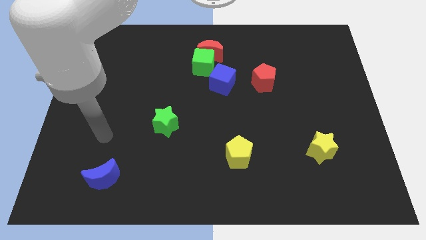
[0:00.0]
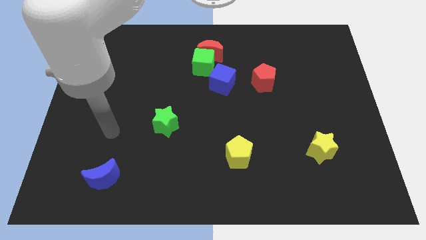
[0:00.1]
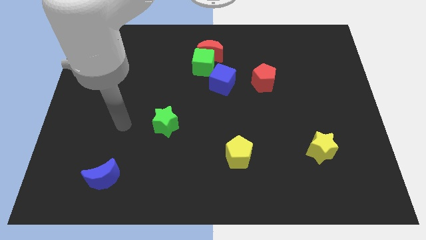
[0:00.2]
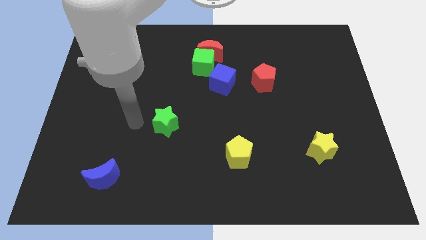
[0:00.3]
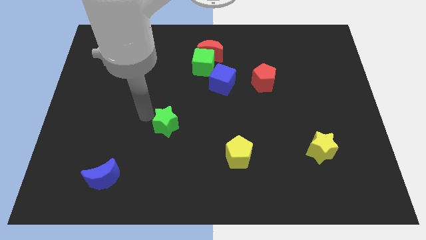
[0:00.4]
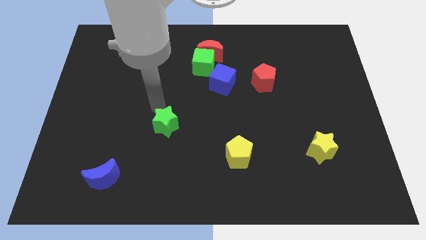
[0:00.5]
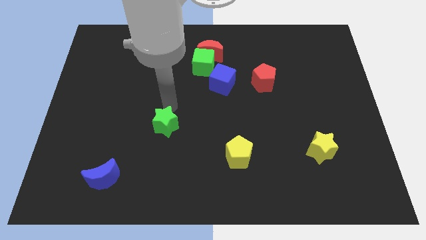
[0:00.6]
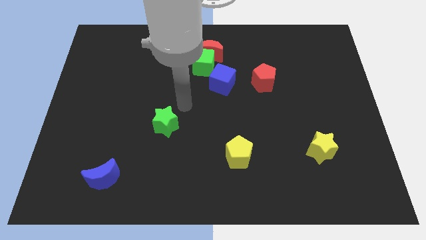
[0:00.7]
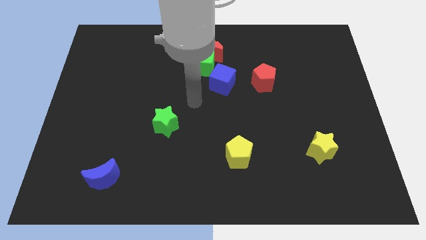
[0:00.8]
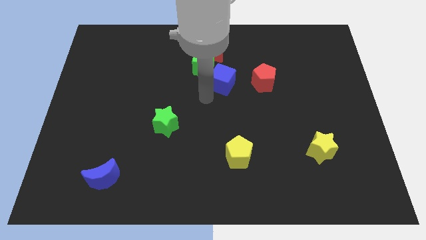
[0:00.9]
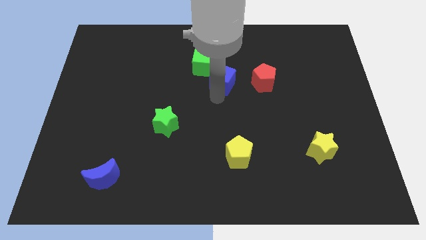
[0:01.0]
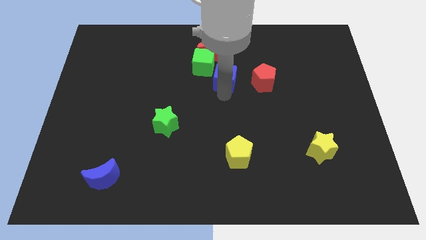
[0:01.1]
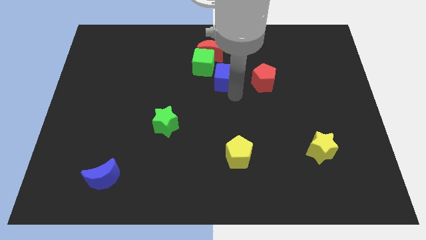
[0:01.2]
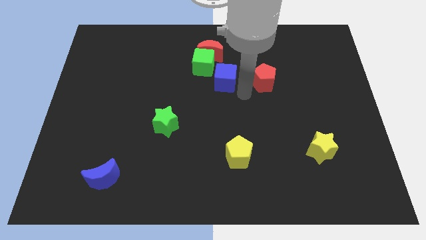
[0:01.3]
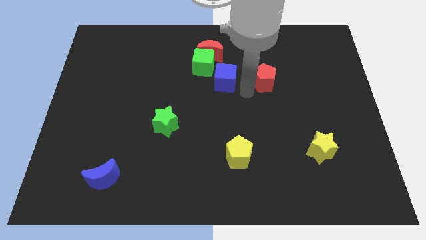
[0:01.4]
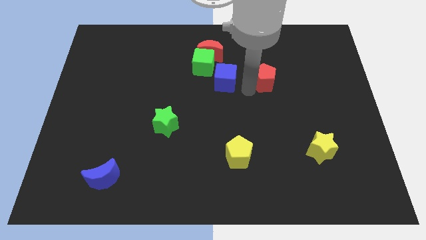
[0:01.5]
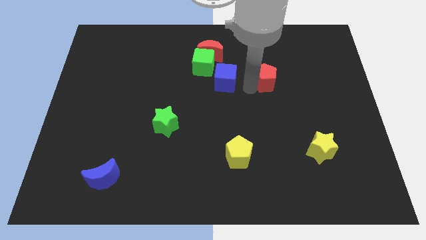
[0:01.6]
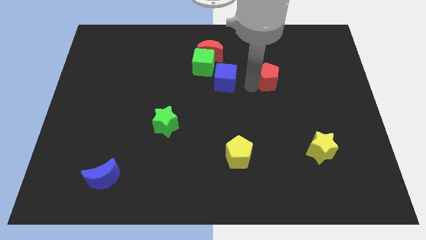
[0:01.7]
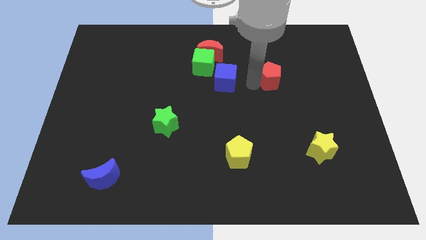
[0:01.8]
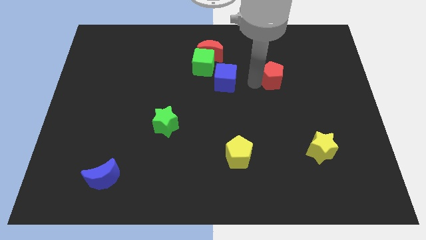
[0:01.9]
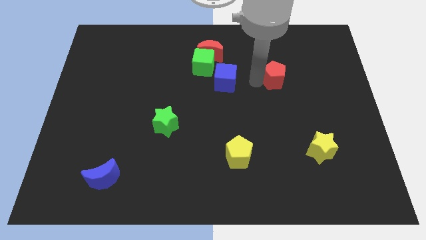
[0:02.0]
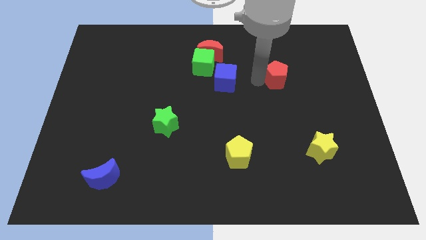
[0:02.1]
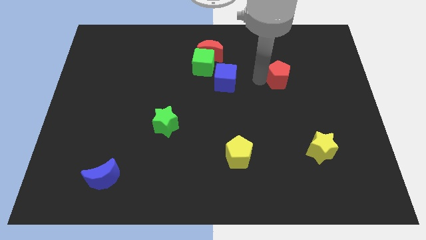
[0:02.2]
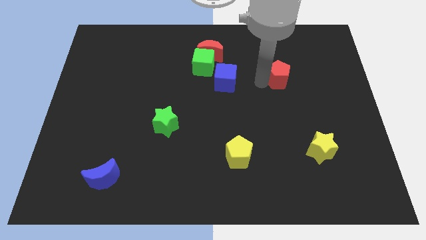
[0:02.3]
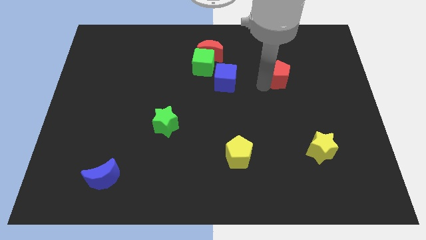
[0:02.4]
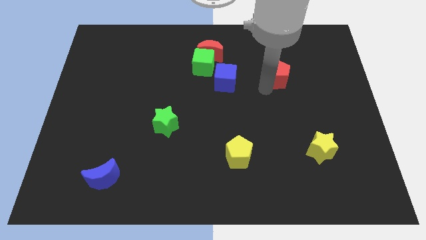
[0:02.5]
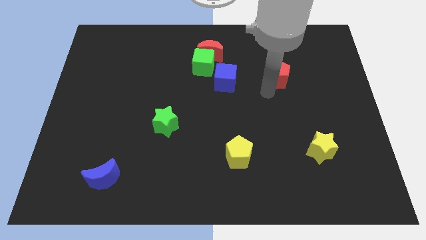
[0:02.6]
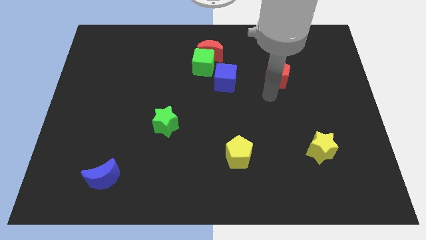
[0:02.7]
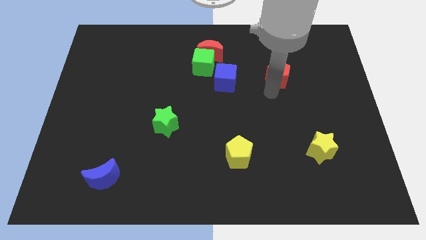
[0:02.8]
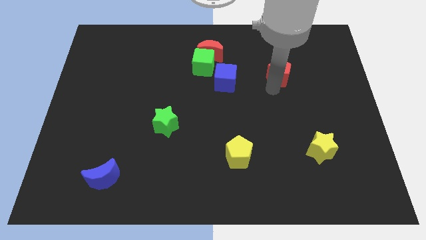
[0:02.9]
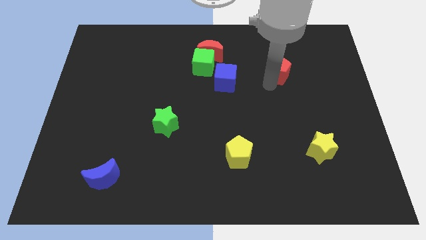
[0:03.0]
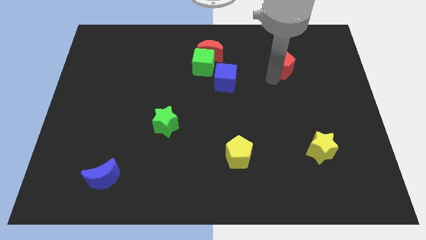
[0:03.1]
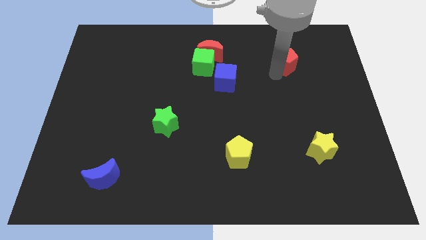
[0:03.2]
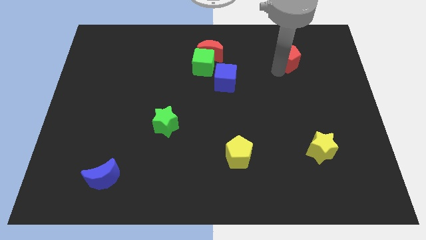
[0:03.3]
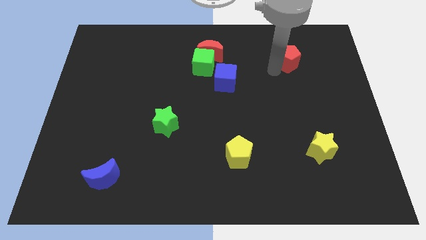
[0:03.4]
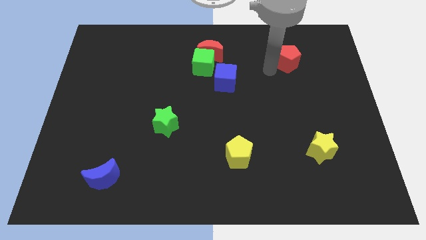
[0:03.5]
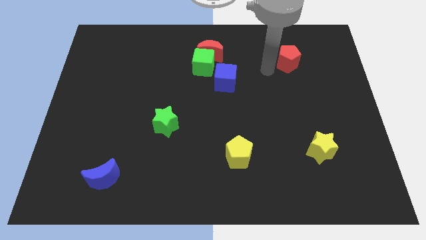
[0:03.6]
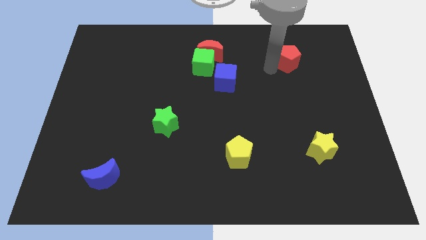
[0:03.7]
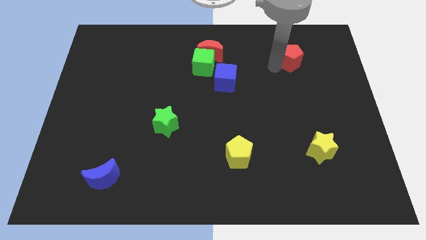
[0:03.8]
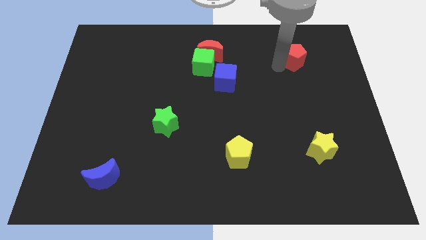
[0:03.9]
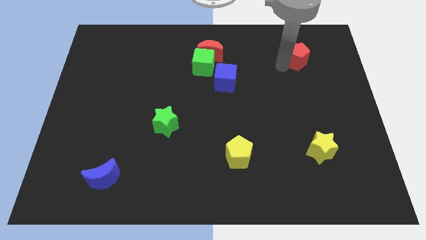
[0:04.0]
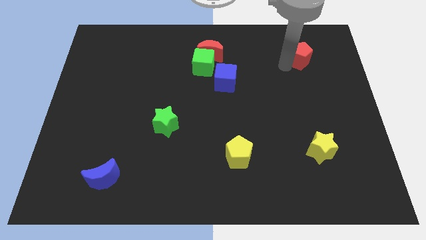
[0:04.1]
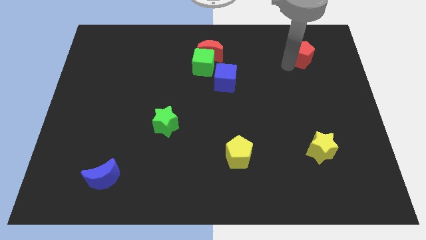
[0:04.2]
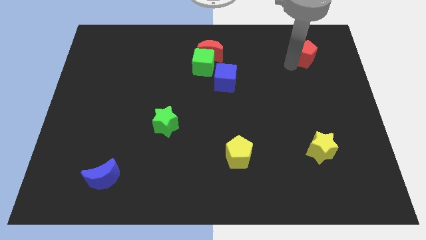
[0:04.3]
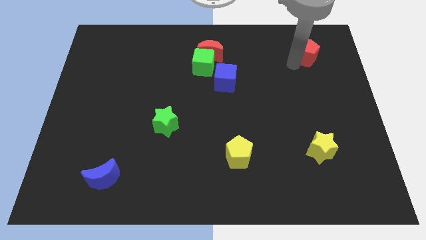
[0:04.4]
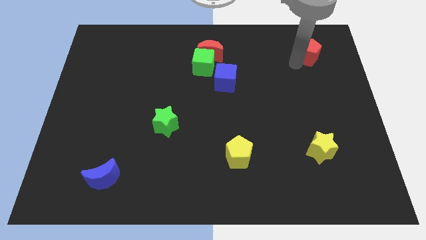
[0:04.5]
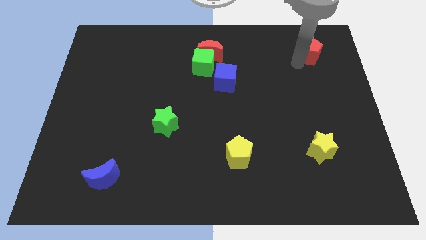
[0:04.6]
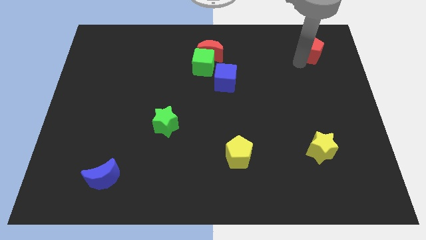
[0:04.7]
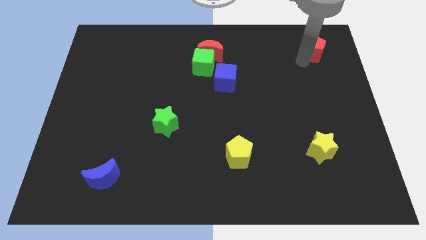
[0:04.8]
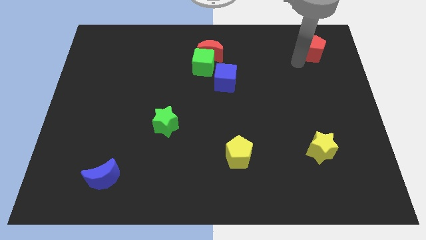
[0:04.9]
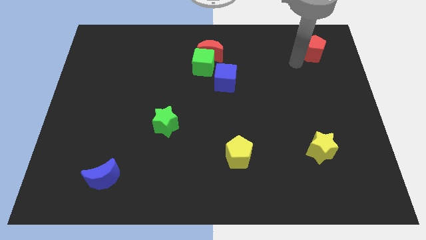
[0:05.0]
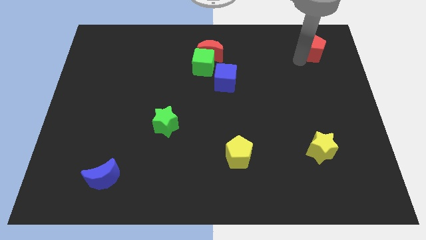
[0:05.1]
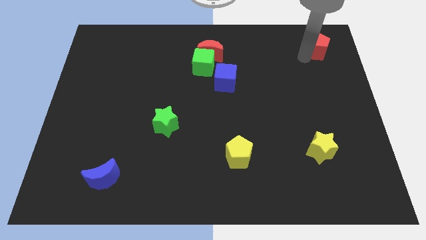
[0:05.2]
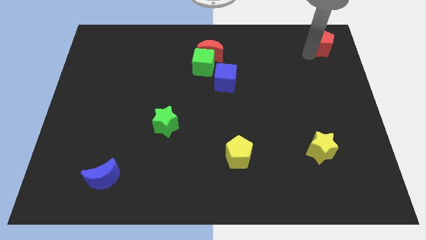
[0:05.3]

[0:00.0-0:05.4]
push the red pentagon to the upper right corner

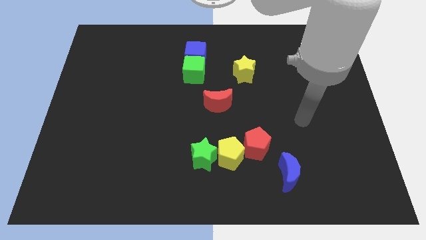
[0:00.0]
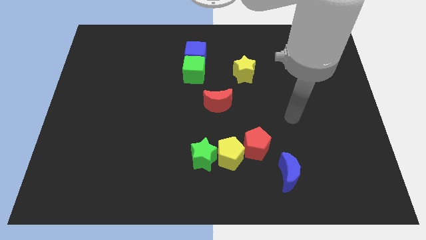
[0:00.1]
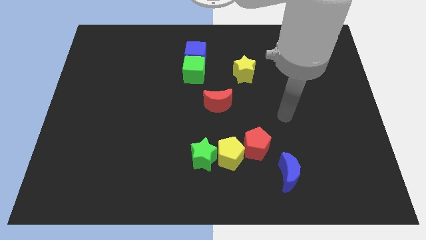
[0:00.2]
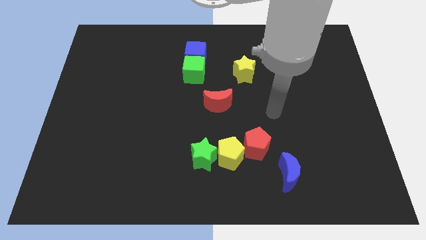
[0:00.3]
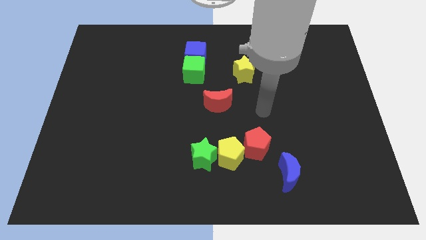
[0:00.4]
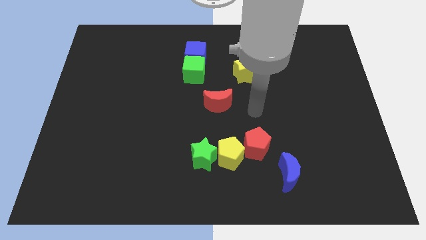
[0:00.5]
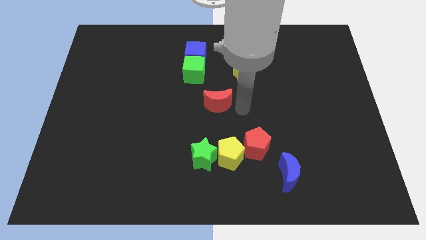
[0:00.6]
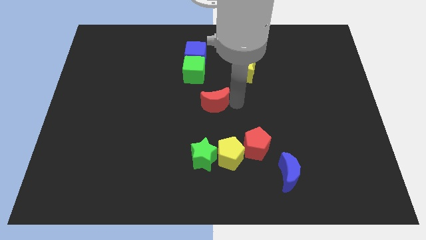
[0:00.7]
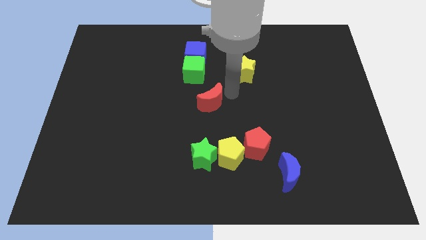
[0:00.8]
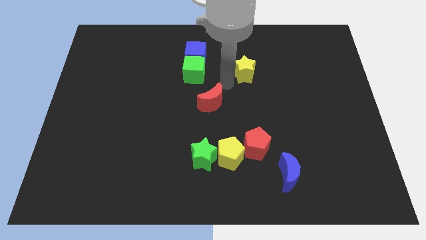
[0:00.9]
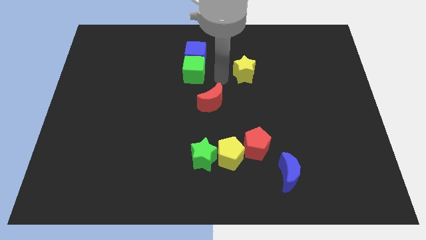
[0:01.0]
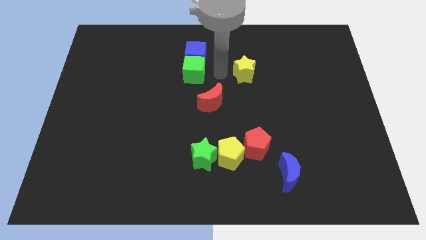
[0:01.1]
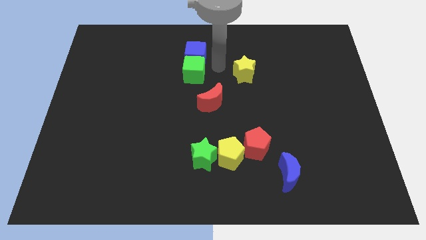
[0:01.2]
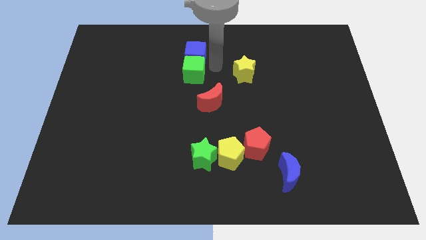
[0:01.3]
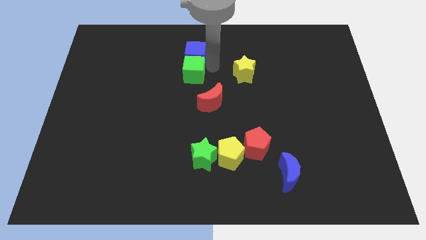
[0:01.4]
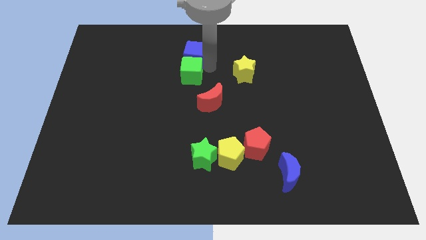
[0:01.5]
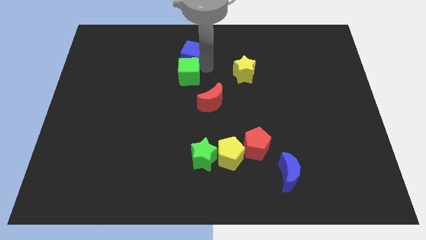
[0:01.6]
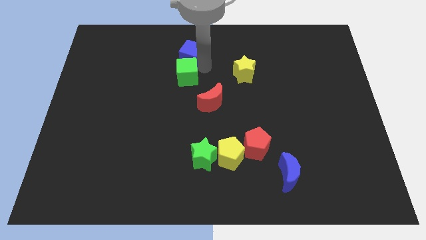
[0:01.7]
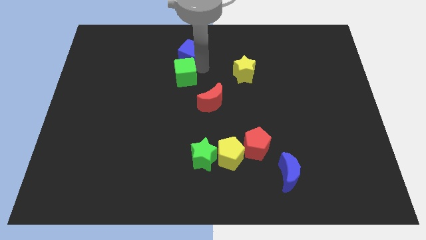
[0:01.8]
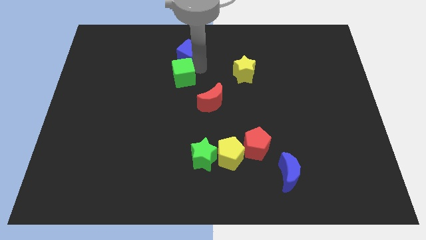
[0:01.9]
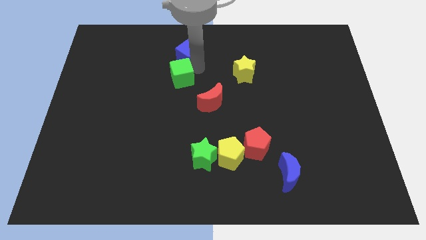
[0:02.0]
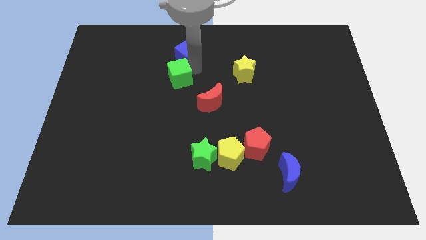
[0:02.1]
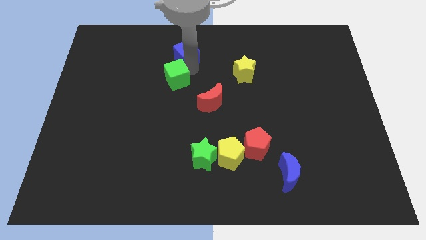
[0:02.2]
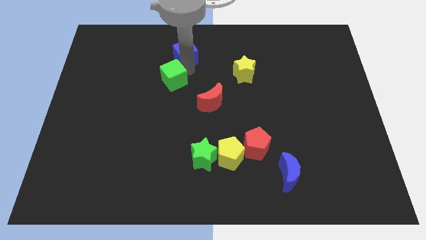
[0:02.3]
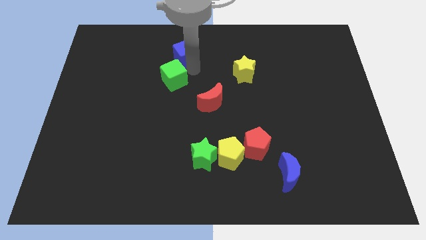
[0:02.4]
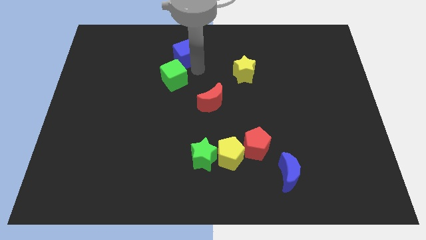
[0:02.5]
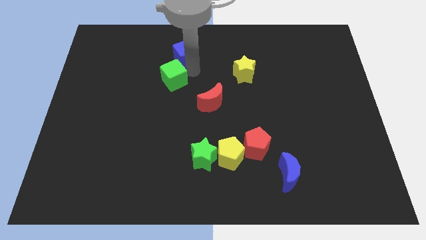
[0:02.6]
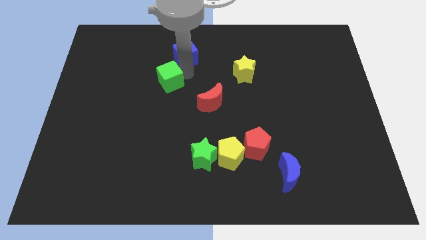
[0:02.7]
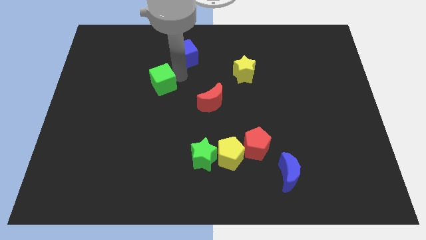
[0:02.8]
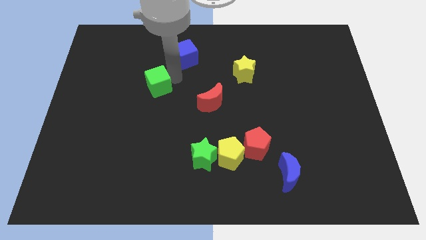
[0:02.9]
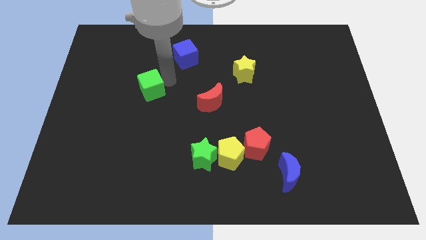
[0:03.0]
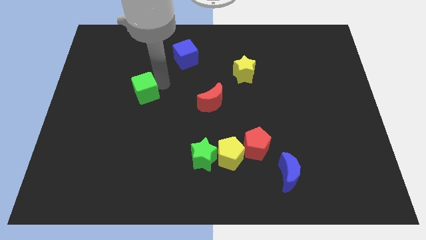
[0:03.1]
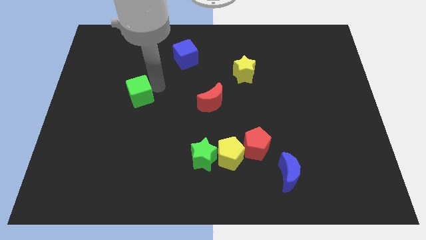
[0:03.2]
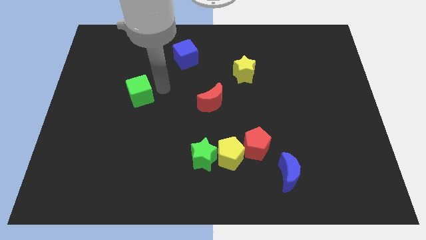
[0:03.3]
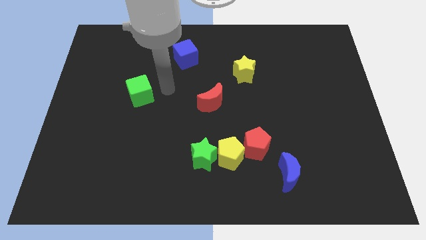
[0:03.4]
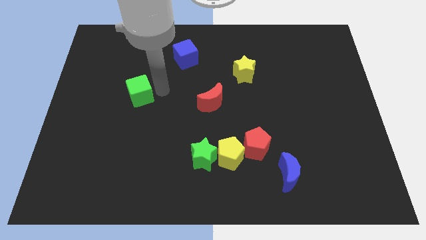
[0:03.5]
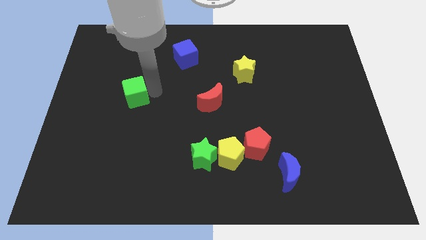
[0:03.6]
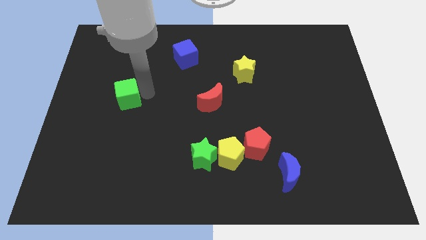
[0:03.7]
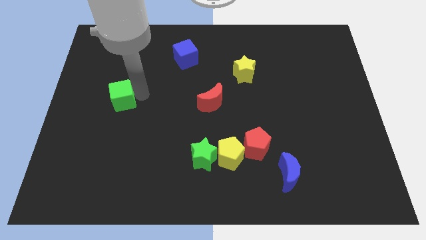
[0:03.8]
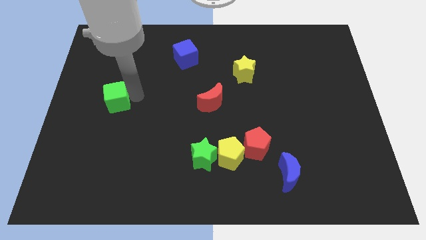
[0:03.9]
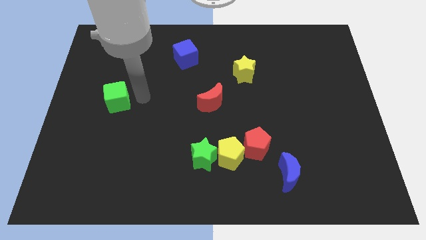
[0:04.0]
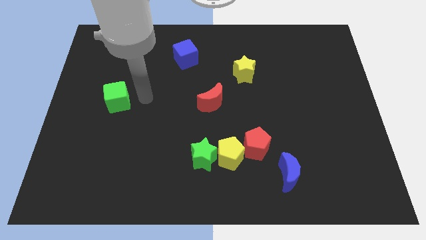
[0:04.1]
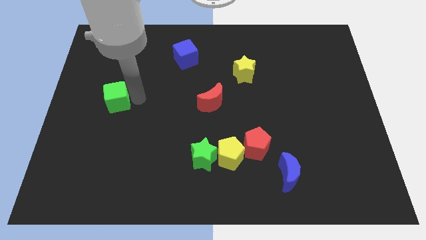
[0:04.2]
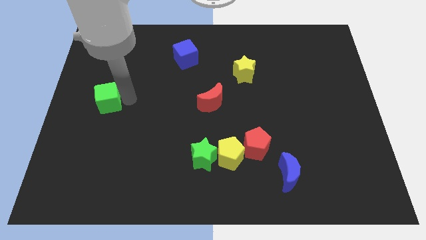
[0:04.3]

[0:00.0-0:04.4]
put the green cube to the left side
